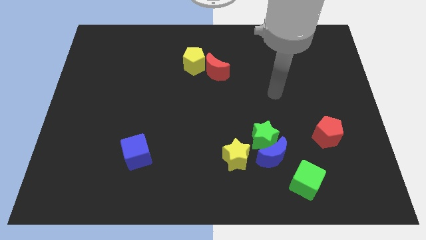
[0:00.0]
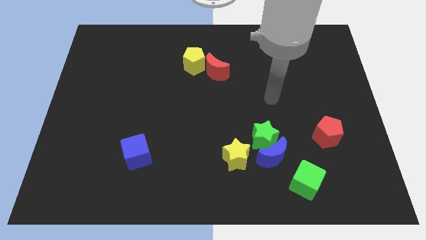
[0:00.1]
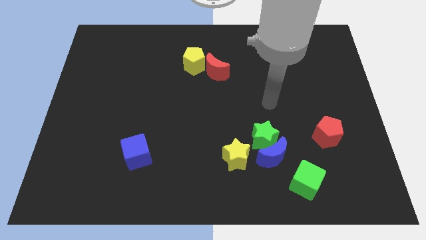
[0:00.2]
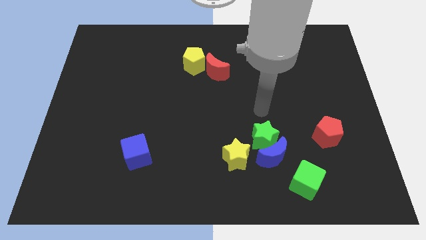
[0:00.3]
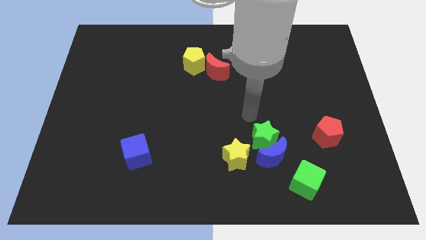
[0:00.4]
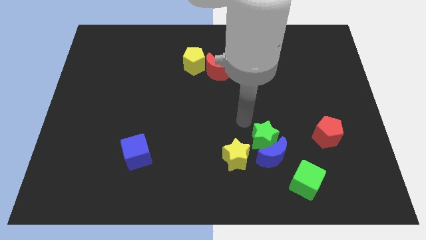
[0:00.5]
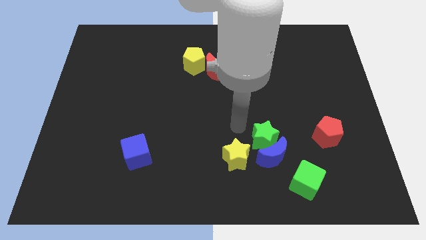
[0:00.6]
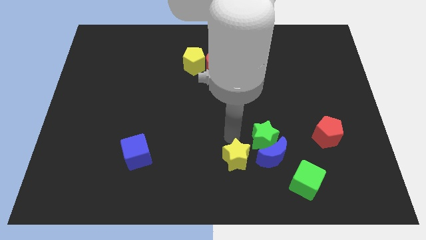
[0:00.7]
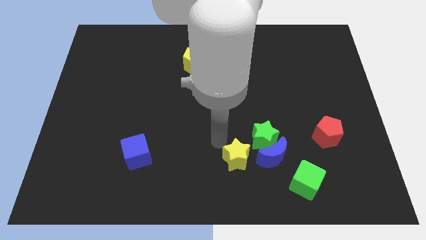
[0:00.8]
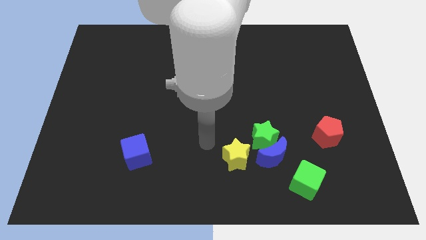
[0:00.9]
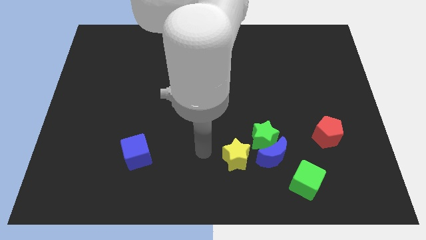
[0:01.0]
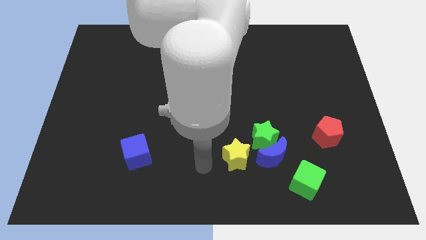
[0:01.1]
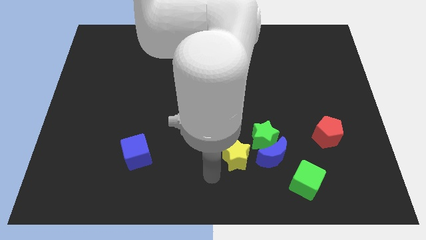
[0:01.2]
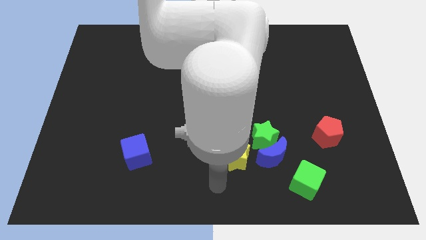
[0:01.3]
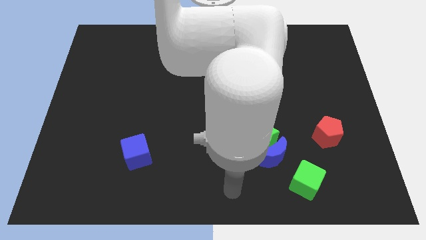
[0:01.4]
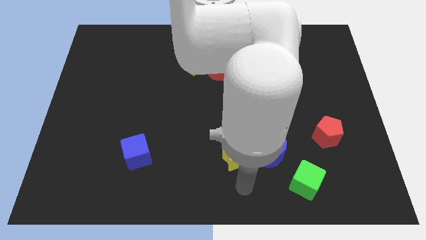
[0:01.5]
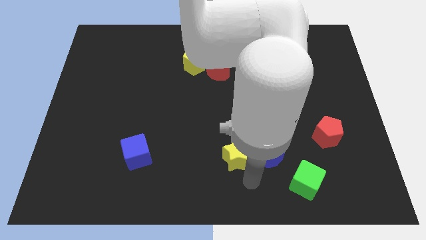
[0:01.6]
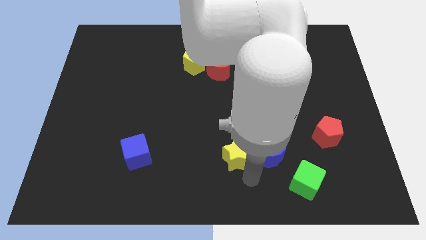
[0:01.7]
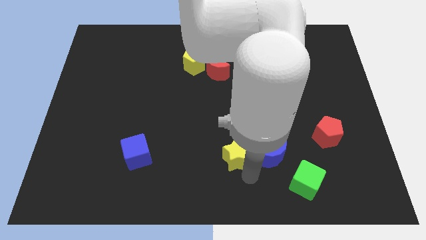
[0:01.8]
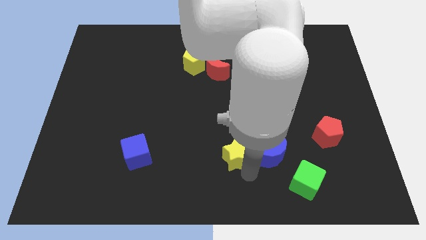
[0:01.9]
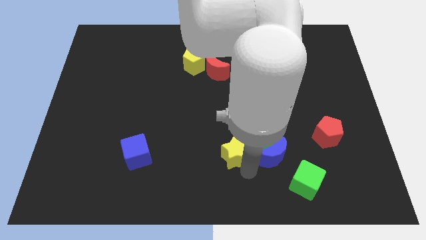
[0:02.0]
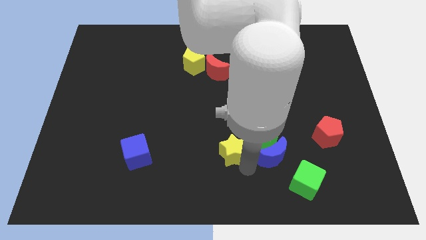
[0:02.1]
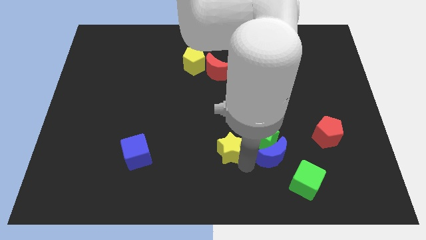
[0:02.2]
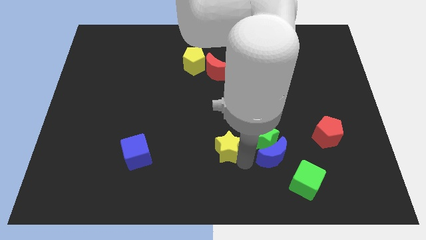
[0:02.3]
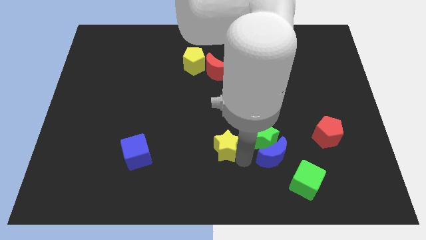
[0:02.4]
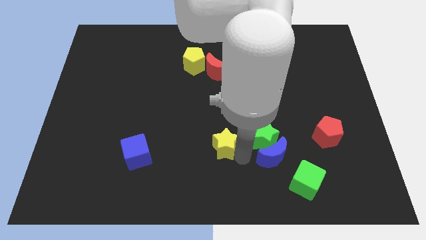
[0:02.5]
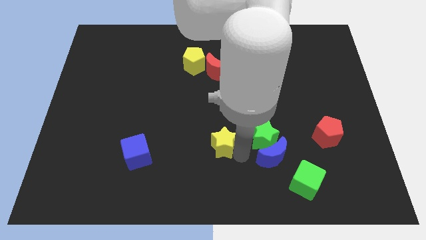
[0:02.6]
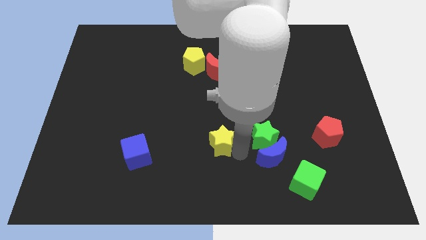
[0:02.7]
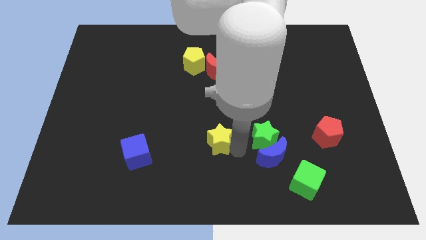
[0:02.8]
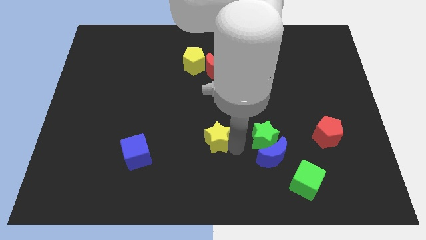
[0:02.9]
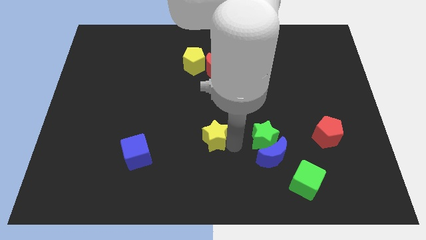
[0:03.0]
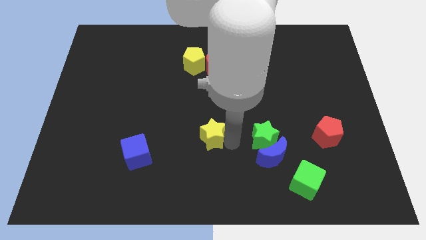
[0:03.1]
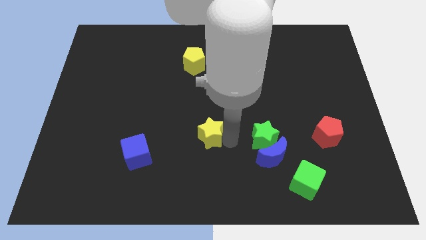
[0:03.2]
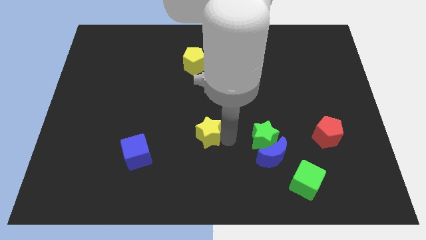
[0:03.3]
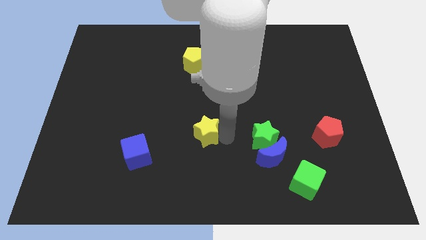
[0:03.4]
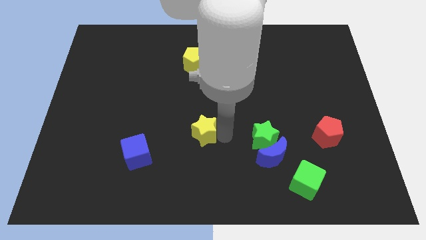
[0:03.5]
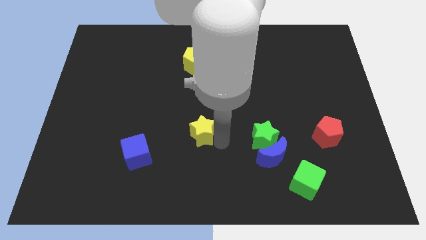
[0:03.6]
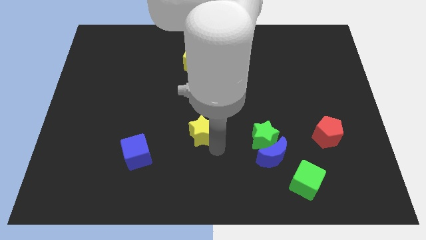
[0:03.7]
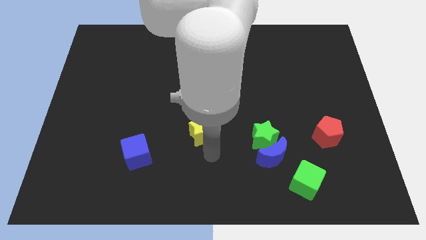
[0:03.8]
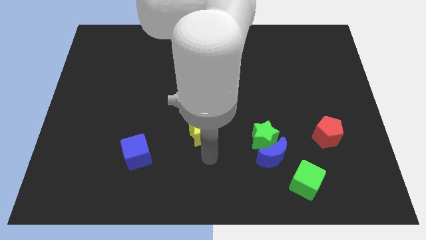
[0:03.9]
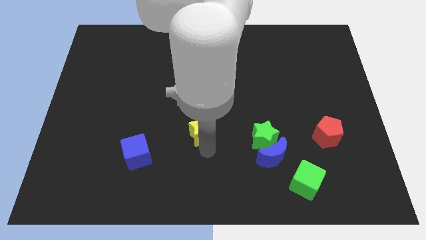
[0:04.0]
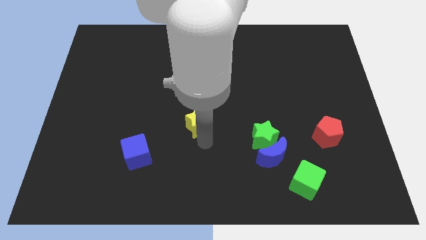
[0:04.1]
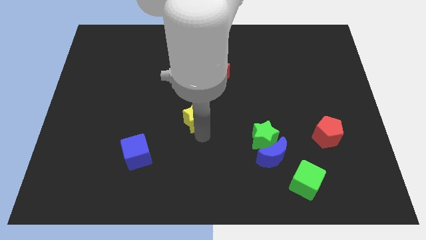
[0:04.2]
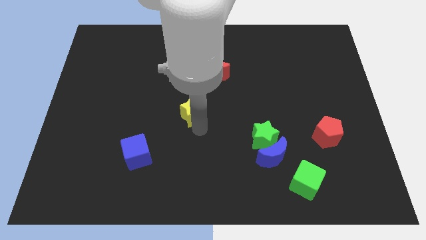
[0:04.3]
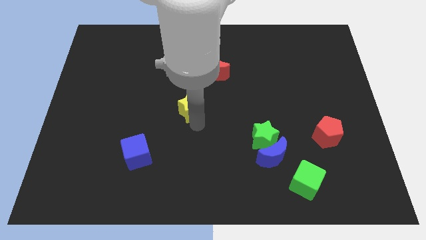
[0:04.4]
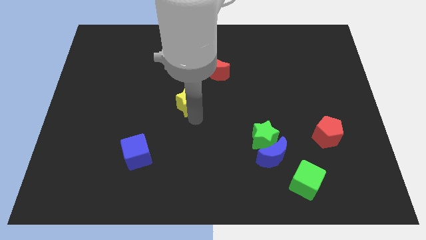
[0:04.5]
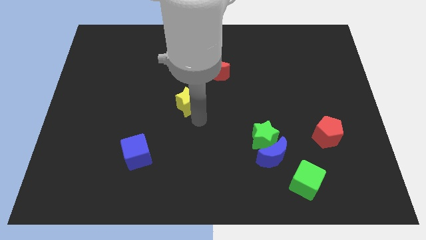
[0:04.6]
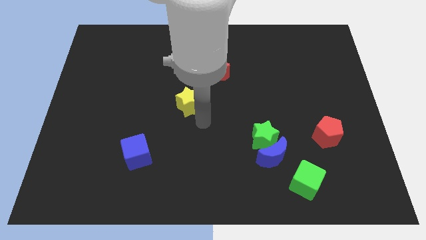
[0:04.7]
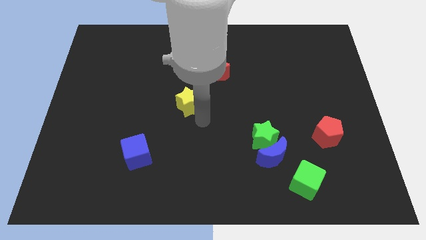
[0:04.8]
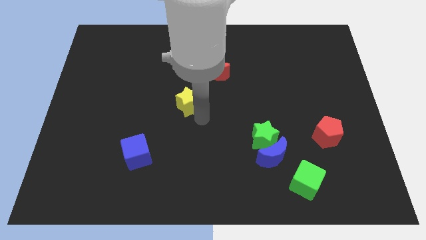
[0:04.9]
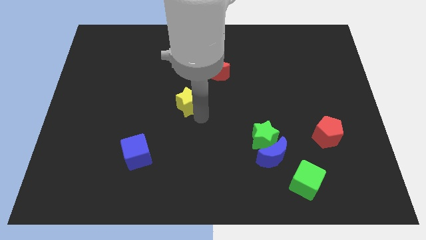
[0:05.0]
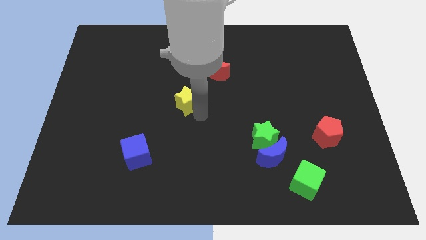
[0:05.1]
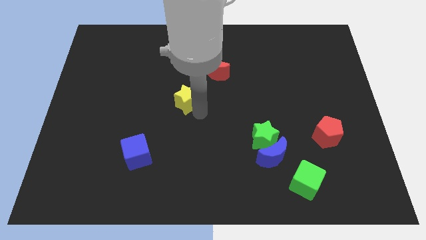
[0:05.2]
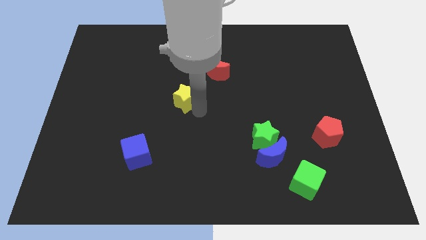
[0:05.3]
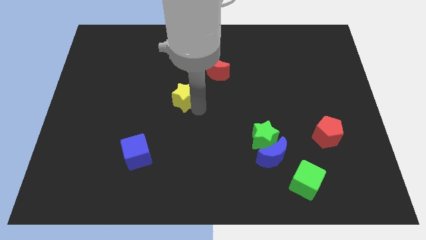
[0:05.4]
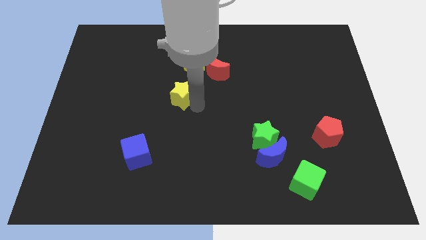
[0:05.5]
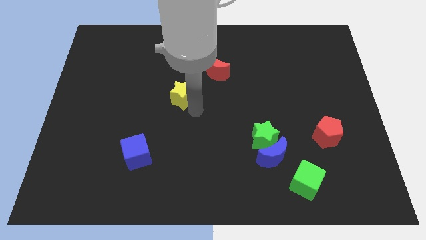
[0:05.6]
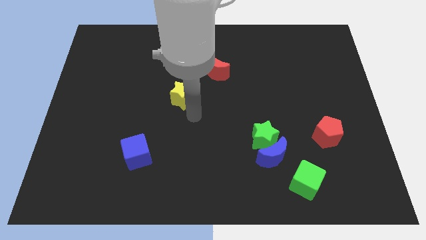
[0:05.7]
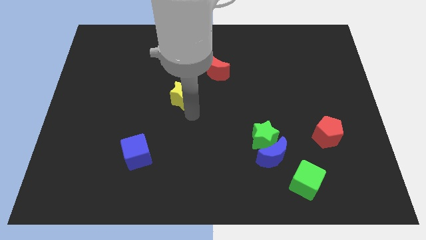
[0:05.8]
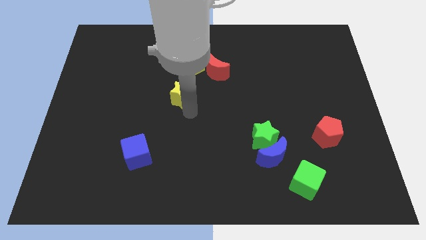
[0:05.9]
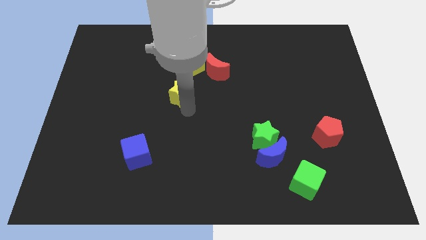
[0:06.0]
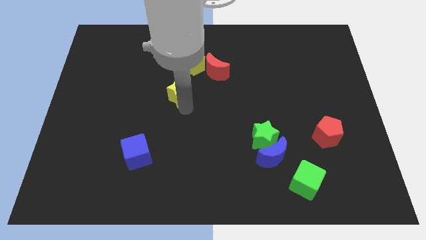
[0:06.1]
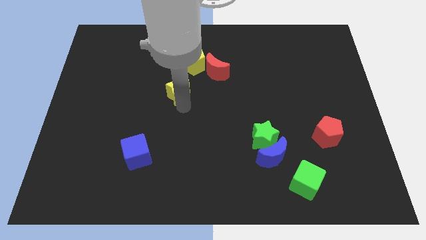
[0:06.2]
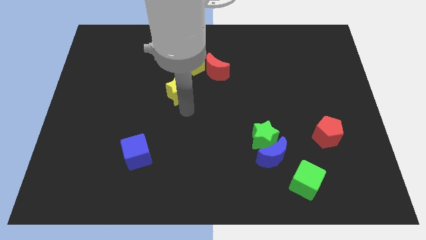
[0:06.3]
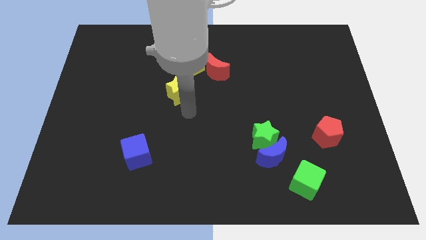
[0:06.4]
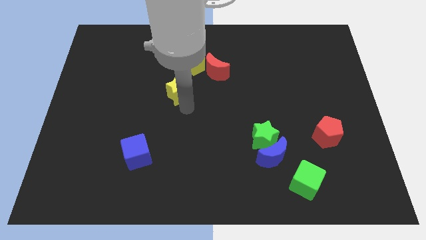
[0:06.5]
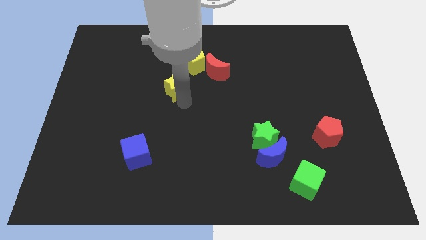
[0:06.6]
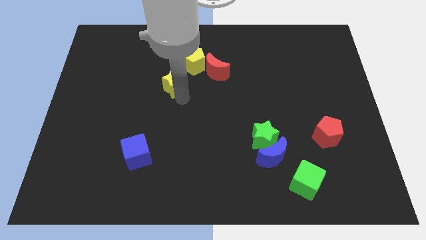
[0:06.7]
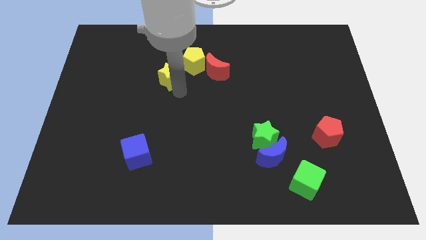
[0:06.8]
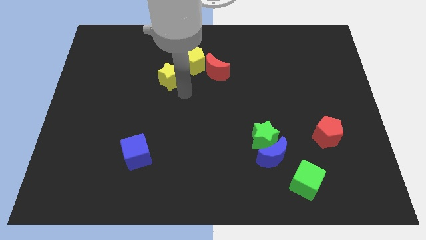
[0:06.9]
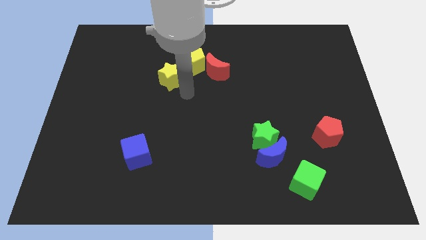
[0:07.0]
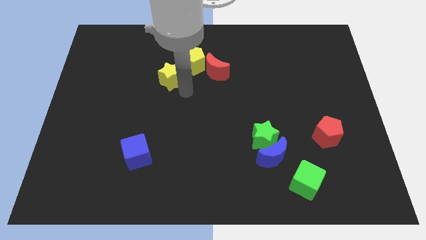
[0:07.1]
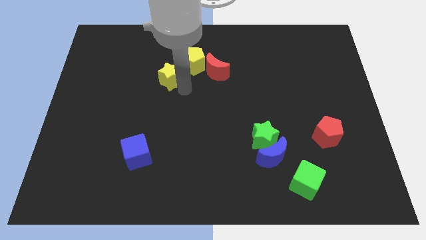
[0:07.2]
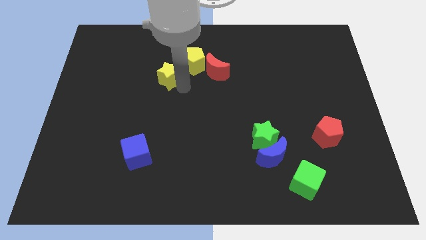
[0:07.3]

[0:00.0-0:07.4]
push the yellow star left of the yellow pentagon
